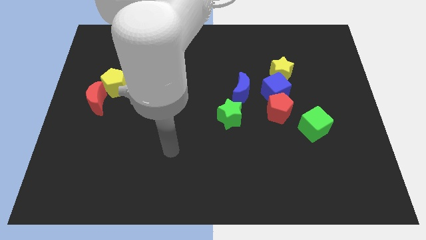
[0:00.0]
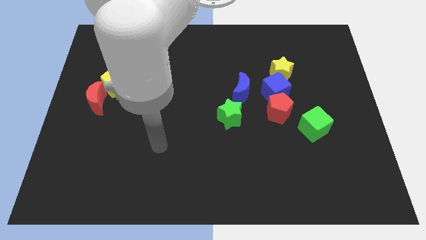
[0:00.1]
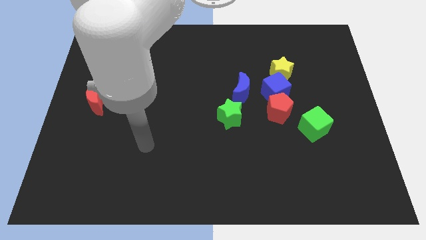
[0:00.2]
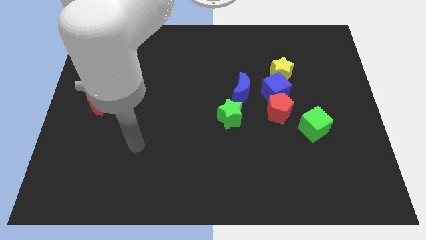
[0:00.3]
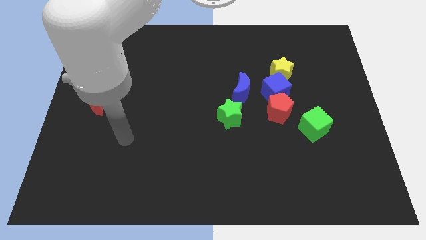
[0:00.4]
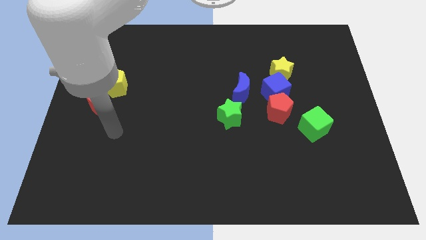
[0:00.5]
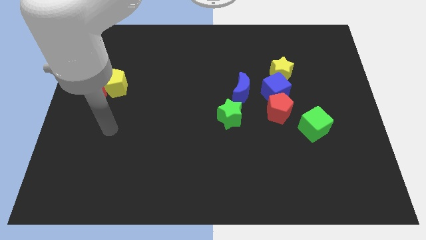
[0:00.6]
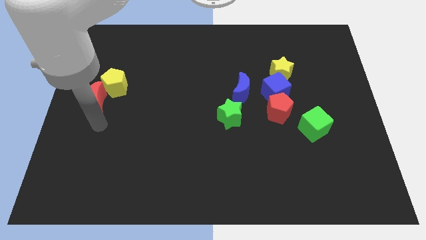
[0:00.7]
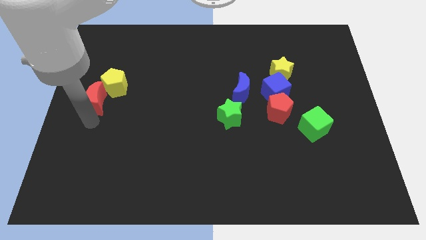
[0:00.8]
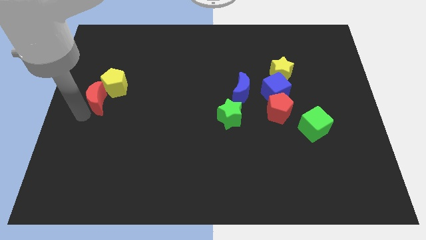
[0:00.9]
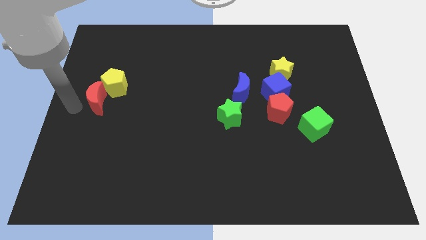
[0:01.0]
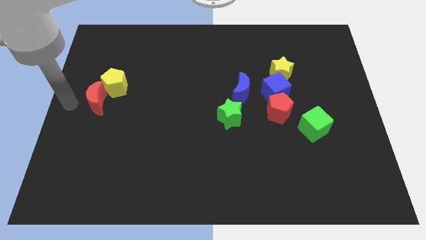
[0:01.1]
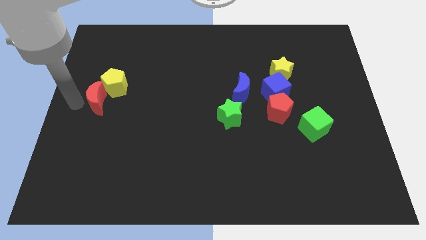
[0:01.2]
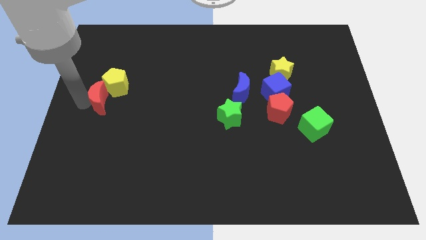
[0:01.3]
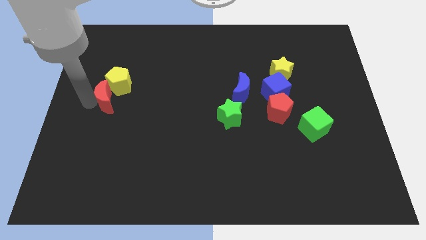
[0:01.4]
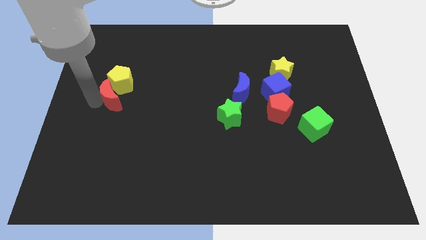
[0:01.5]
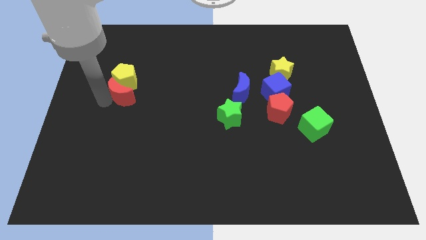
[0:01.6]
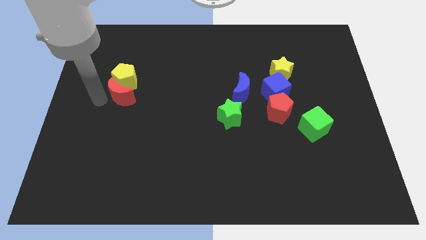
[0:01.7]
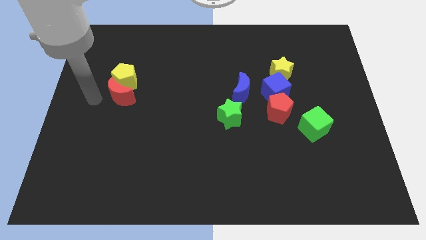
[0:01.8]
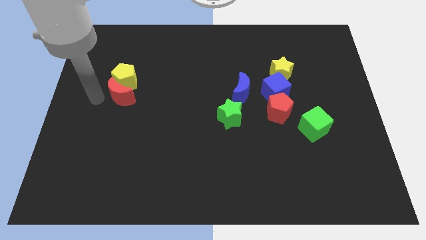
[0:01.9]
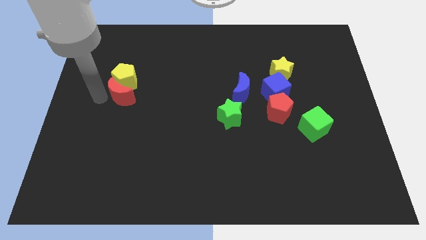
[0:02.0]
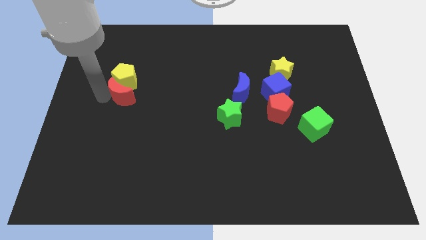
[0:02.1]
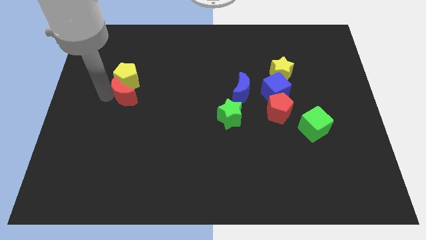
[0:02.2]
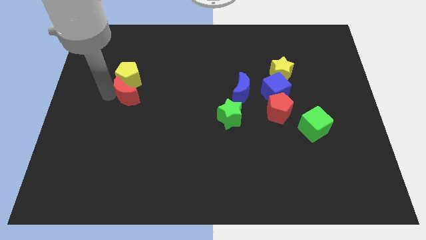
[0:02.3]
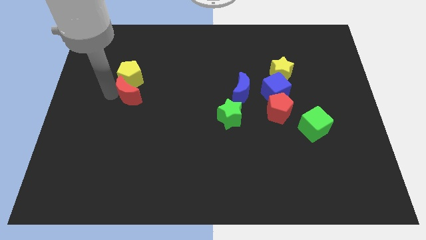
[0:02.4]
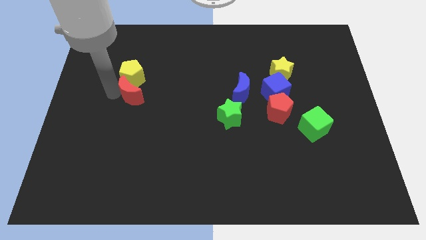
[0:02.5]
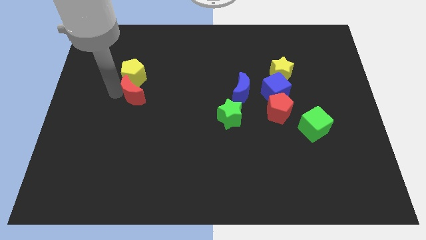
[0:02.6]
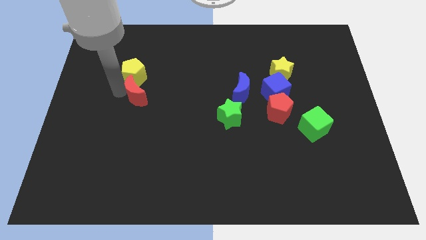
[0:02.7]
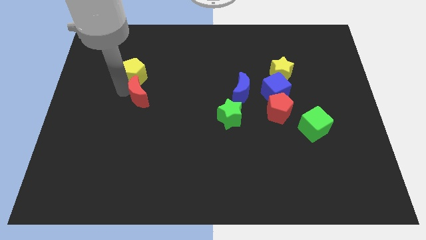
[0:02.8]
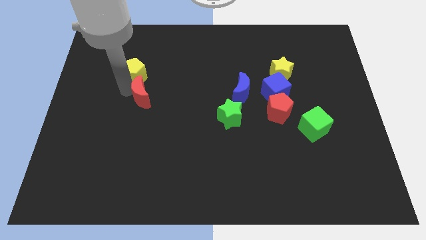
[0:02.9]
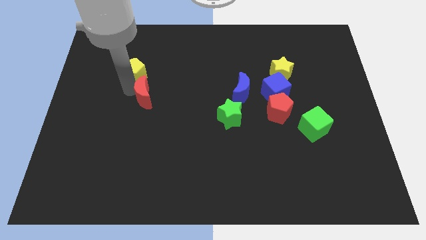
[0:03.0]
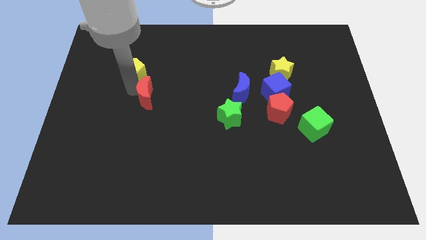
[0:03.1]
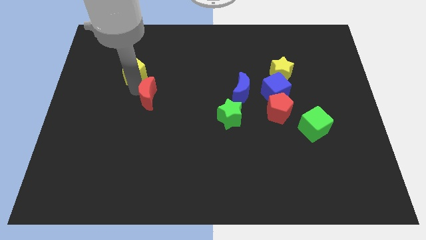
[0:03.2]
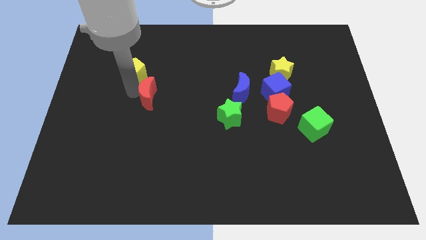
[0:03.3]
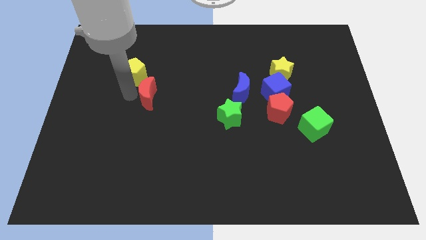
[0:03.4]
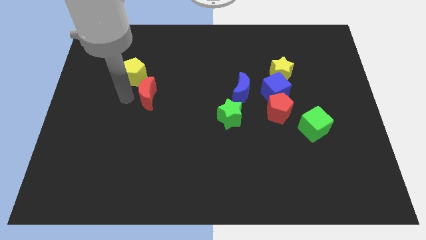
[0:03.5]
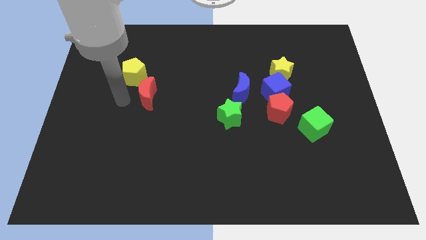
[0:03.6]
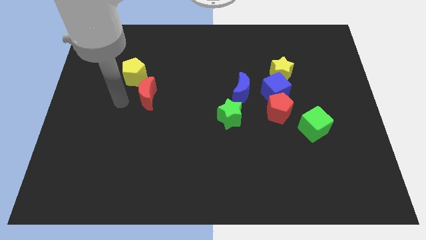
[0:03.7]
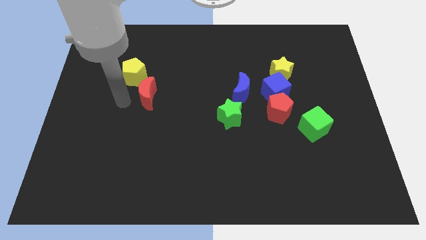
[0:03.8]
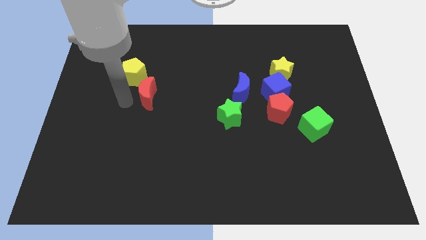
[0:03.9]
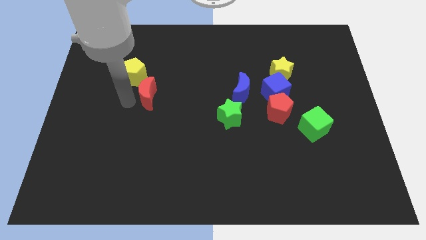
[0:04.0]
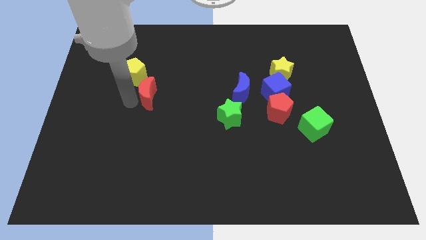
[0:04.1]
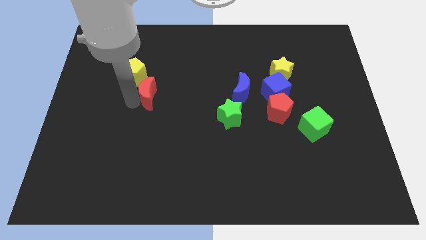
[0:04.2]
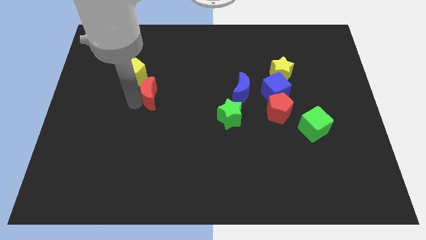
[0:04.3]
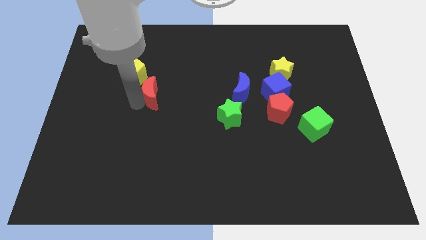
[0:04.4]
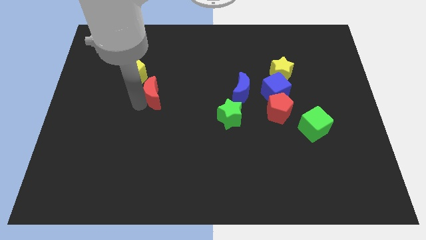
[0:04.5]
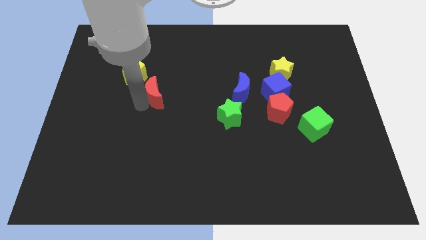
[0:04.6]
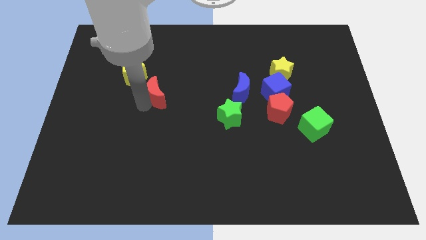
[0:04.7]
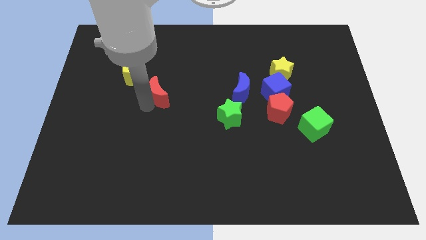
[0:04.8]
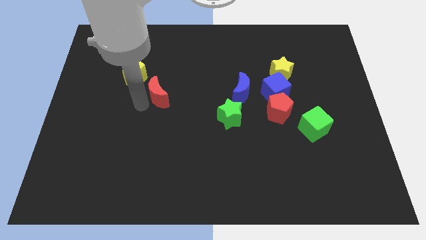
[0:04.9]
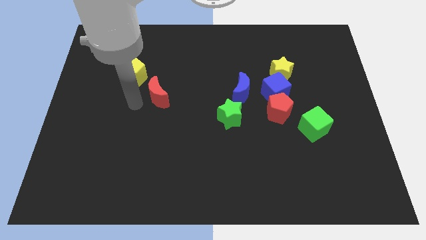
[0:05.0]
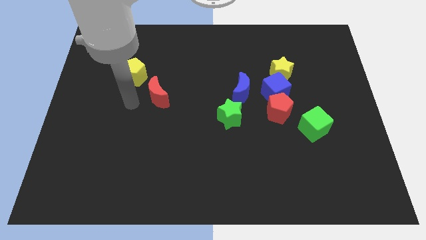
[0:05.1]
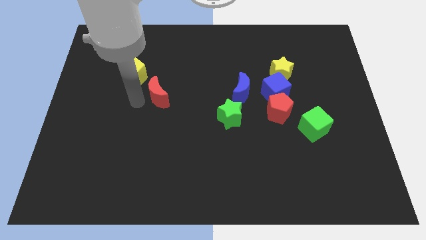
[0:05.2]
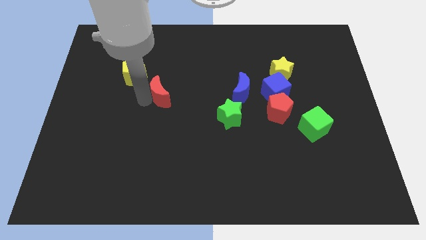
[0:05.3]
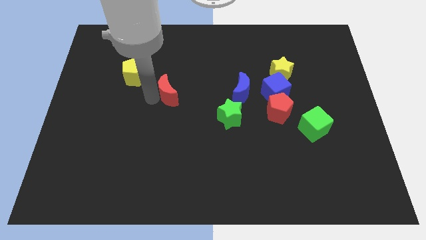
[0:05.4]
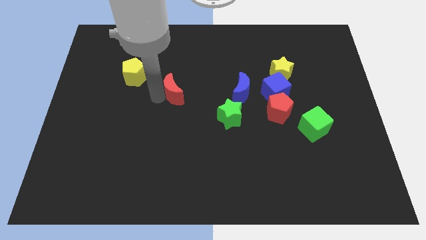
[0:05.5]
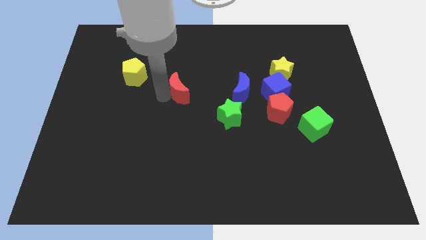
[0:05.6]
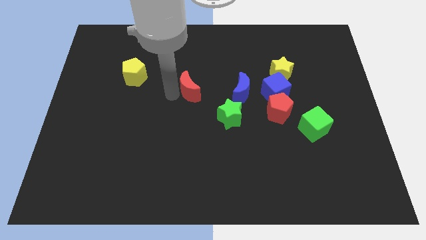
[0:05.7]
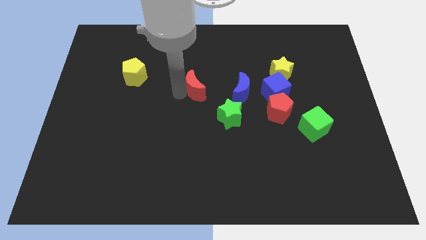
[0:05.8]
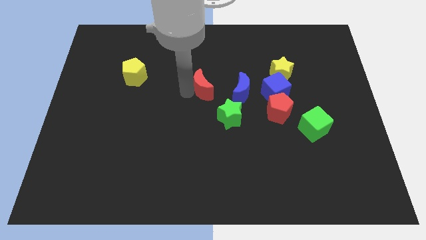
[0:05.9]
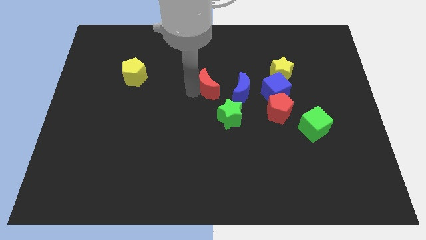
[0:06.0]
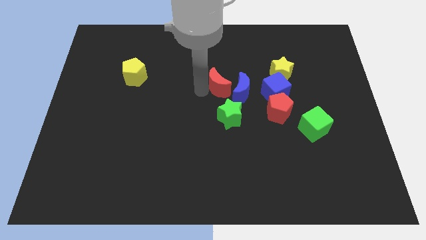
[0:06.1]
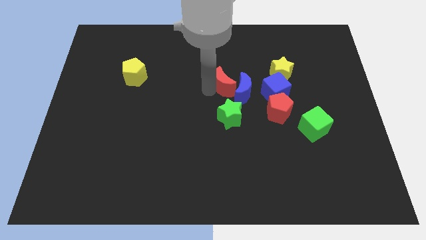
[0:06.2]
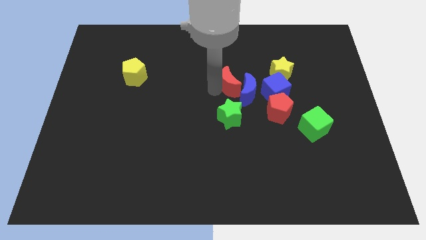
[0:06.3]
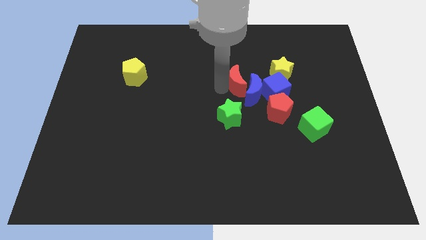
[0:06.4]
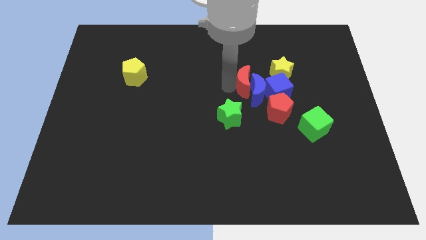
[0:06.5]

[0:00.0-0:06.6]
slide the red moon to the bottom left of the yellow star

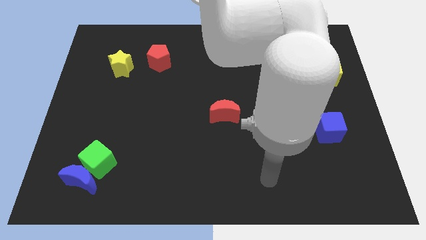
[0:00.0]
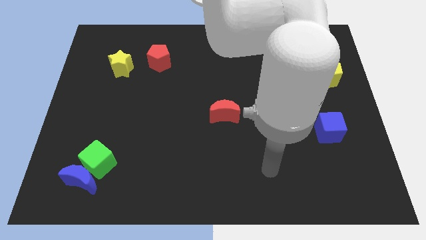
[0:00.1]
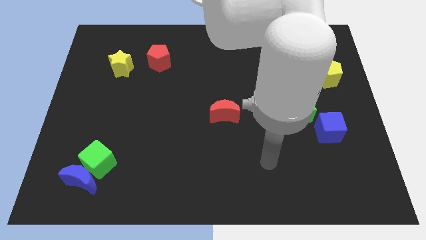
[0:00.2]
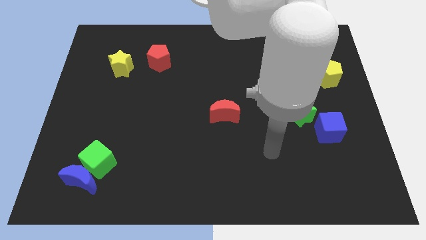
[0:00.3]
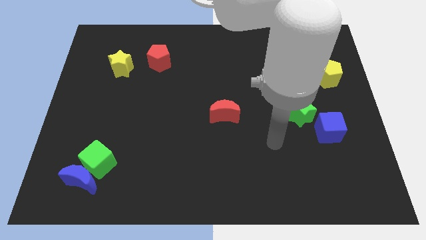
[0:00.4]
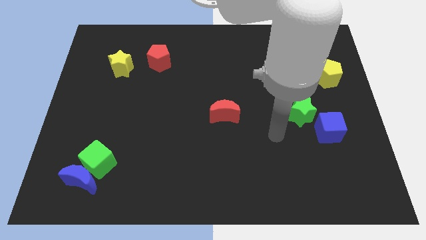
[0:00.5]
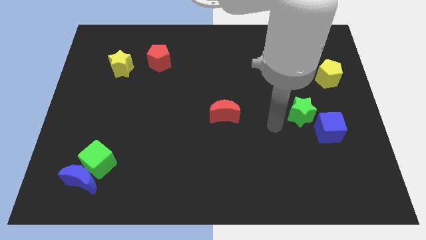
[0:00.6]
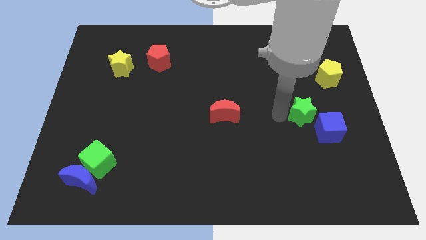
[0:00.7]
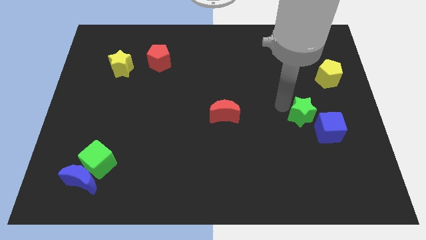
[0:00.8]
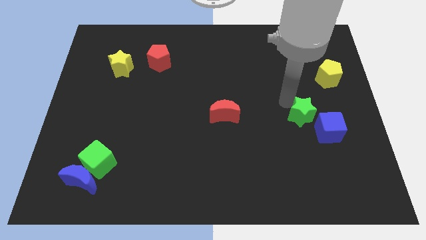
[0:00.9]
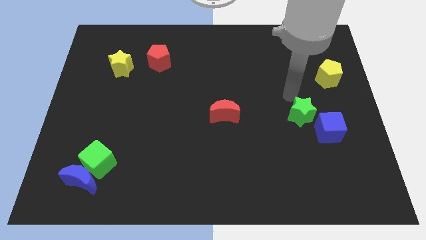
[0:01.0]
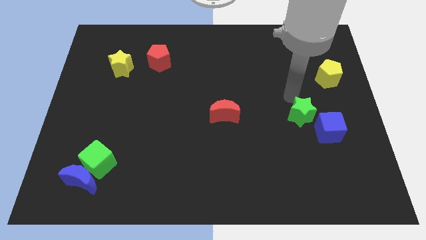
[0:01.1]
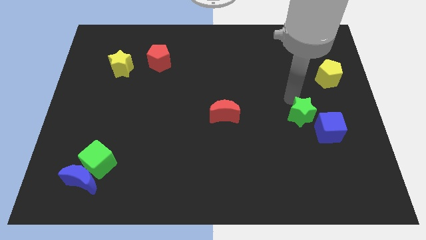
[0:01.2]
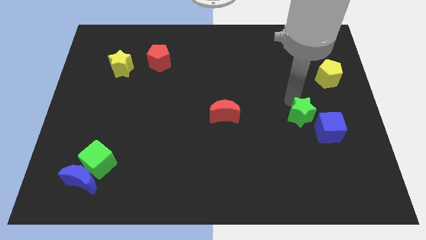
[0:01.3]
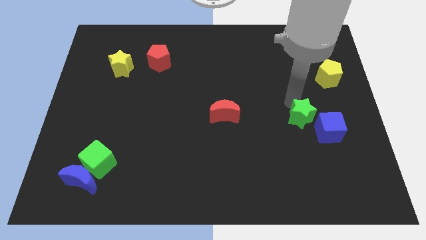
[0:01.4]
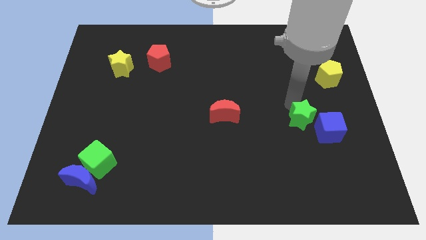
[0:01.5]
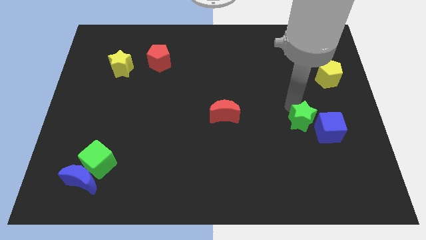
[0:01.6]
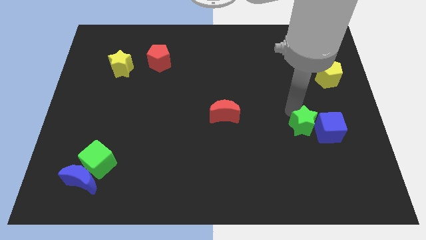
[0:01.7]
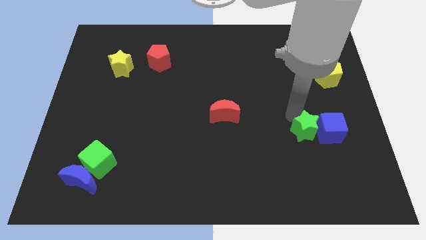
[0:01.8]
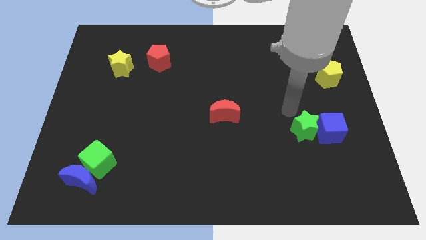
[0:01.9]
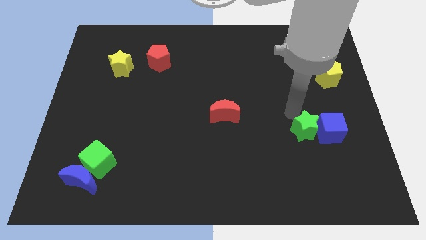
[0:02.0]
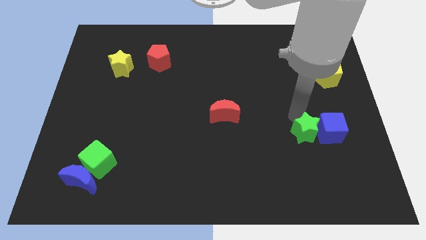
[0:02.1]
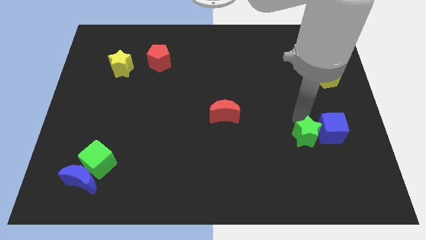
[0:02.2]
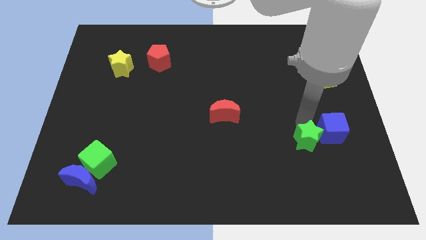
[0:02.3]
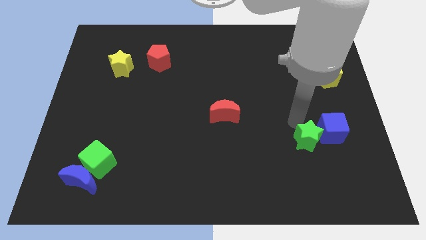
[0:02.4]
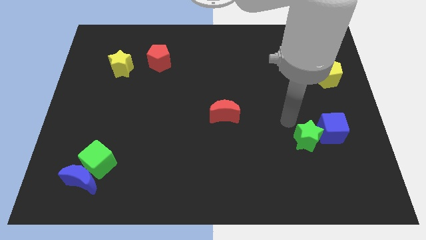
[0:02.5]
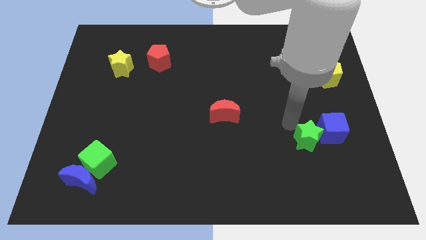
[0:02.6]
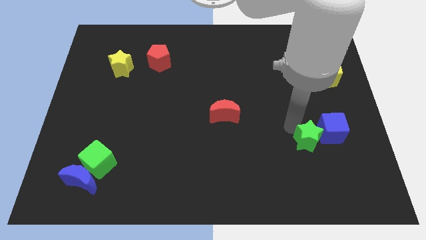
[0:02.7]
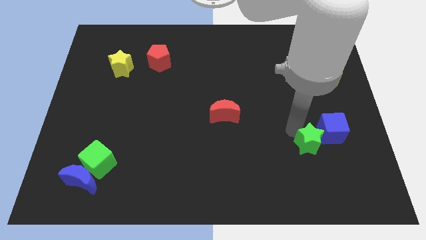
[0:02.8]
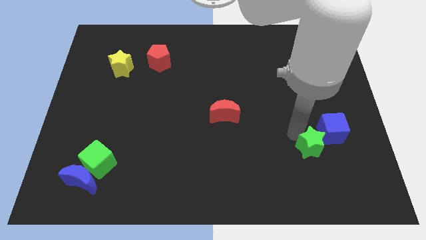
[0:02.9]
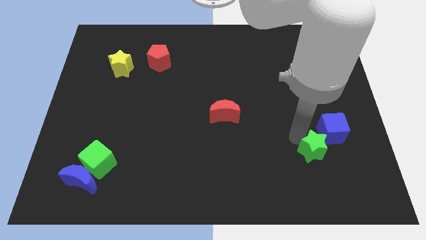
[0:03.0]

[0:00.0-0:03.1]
move the green star below the blue cube
